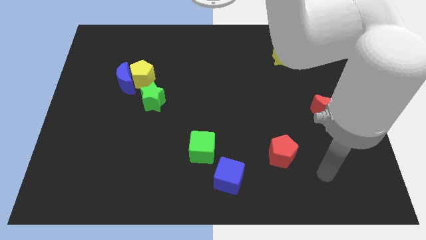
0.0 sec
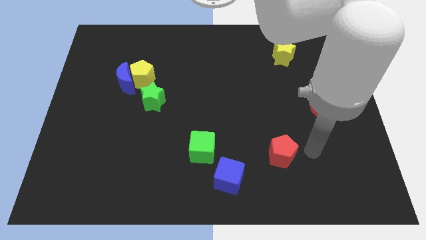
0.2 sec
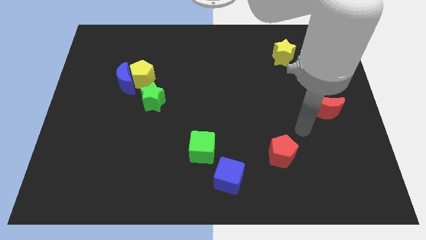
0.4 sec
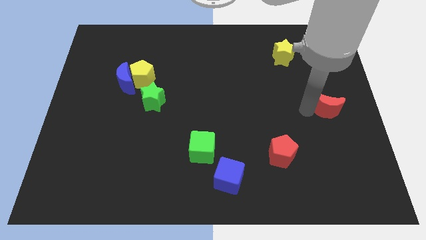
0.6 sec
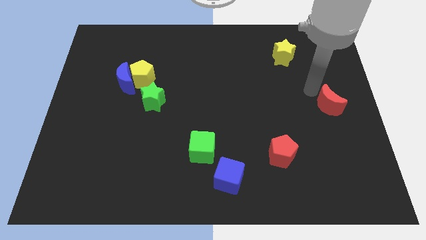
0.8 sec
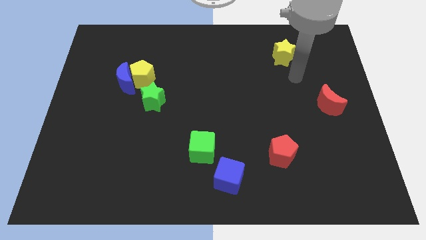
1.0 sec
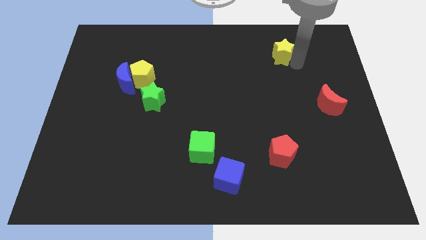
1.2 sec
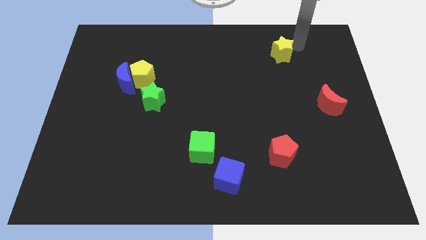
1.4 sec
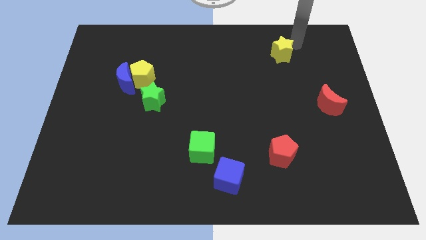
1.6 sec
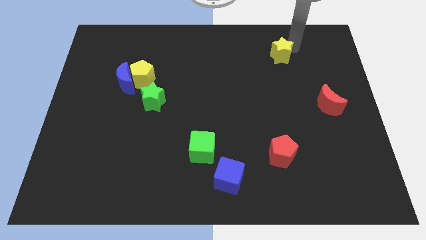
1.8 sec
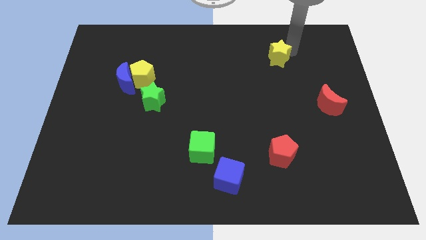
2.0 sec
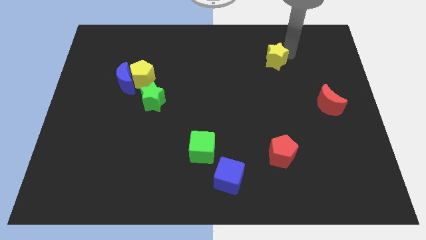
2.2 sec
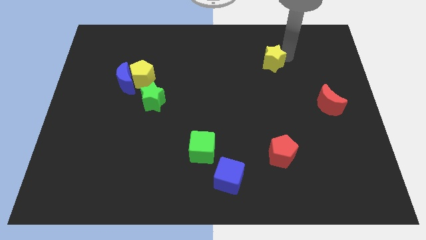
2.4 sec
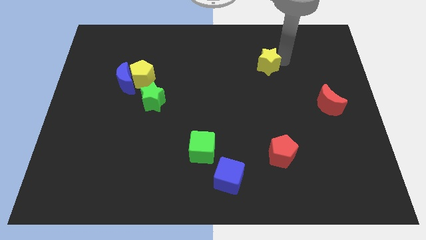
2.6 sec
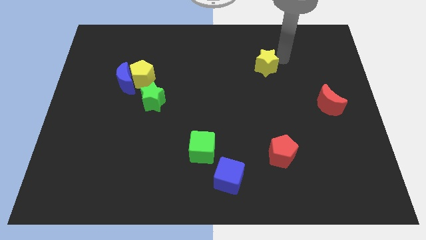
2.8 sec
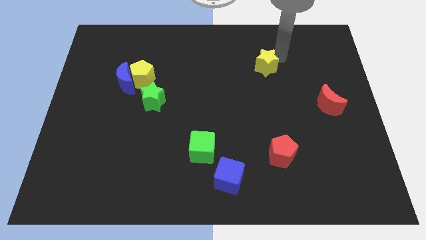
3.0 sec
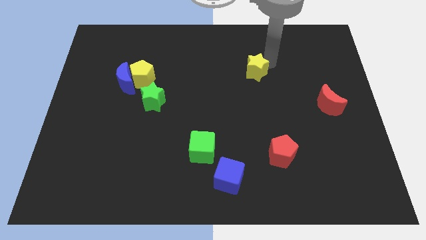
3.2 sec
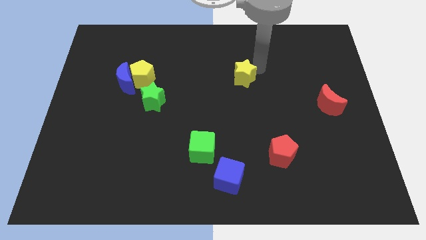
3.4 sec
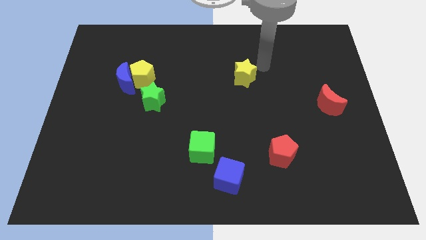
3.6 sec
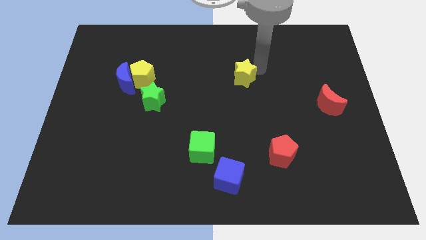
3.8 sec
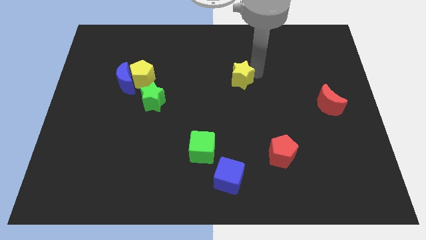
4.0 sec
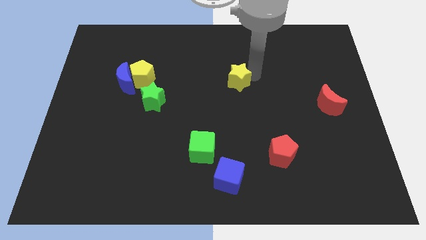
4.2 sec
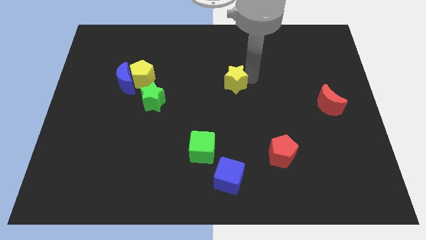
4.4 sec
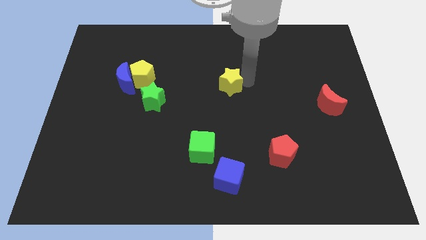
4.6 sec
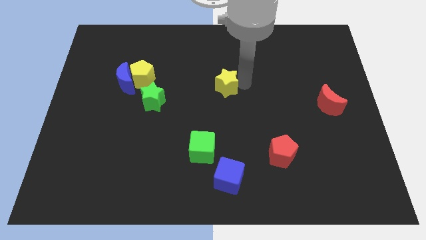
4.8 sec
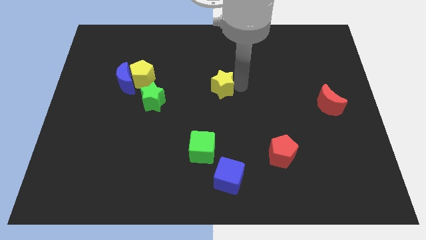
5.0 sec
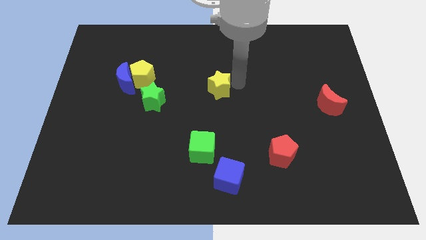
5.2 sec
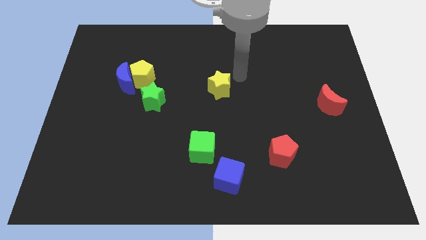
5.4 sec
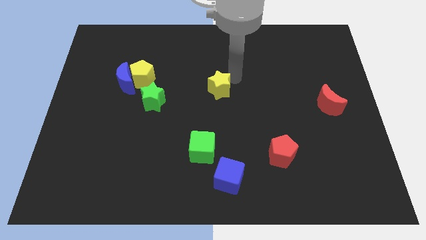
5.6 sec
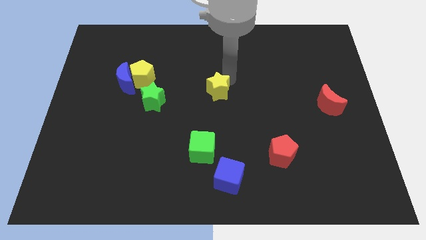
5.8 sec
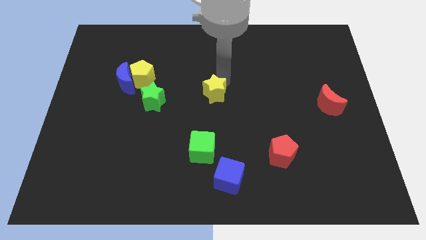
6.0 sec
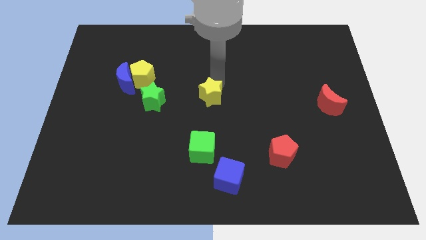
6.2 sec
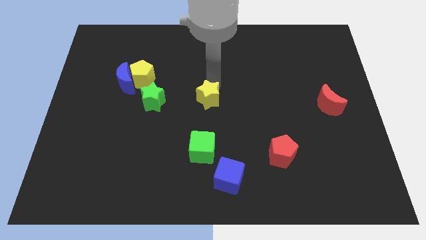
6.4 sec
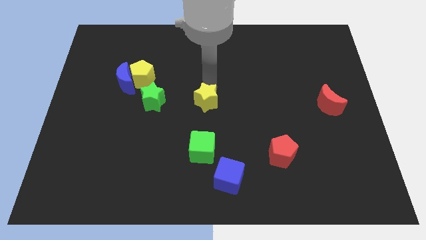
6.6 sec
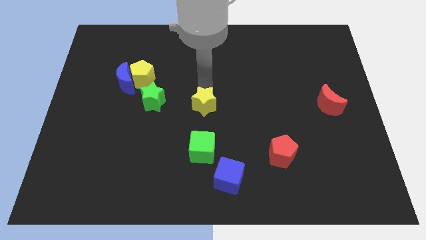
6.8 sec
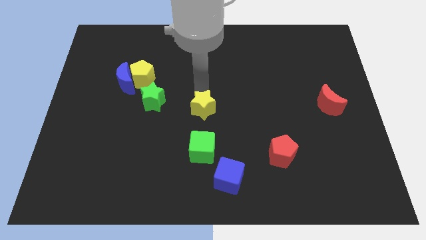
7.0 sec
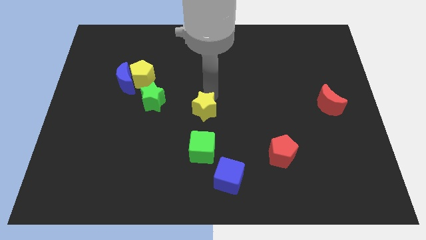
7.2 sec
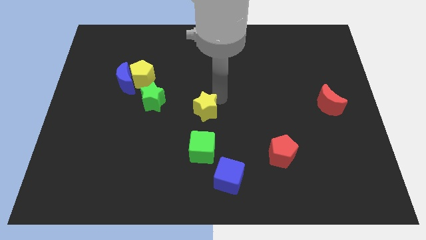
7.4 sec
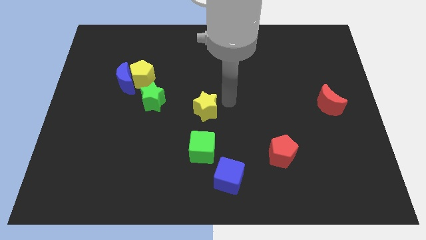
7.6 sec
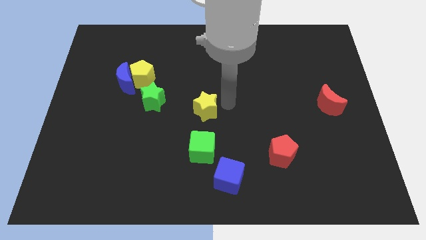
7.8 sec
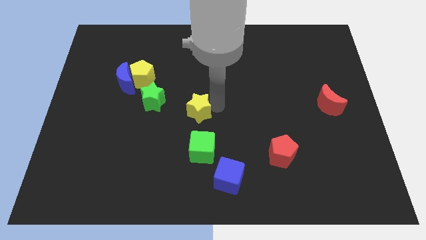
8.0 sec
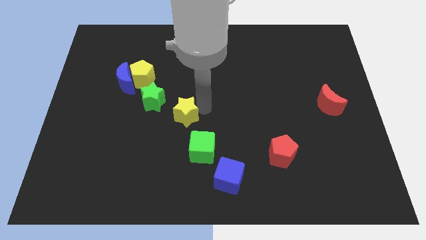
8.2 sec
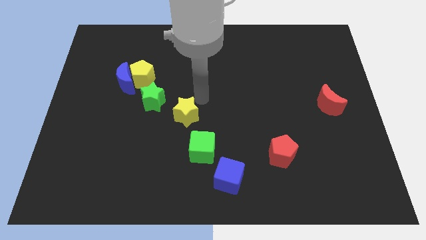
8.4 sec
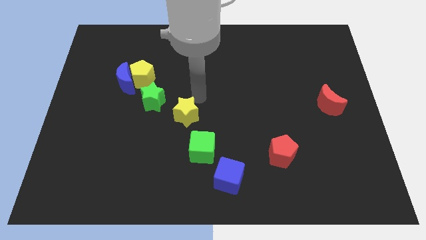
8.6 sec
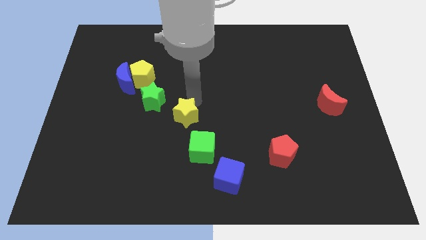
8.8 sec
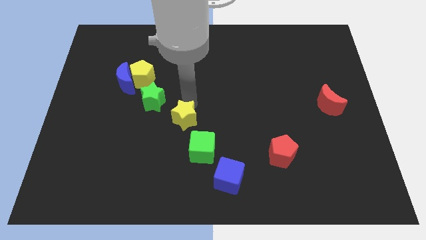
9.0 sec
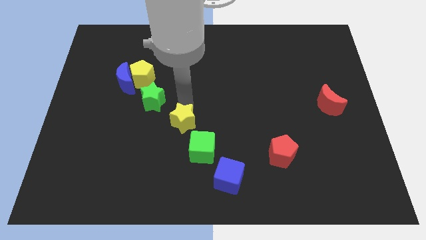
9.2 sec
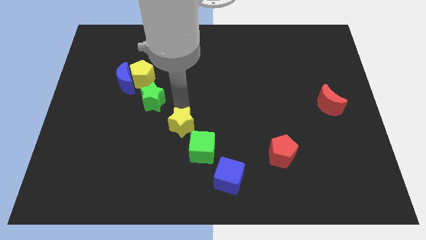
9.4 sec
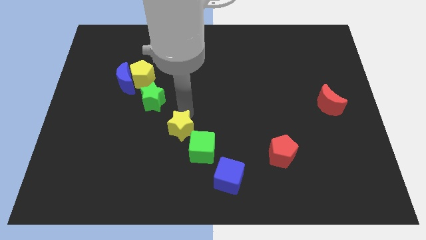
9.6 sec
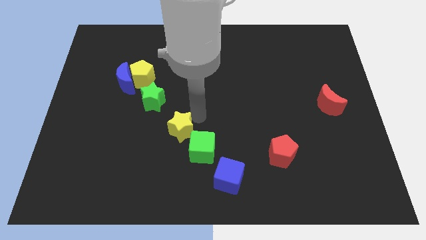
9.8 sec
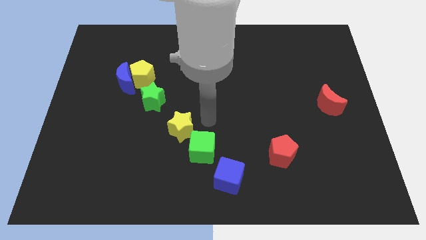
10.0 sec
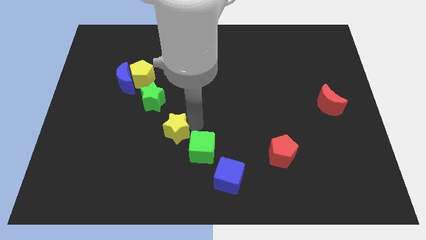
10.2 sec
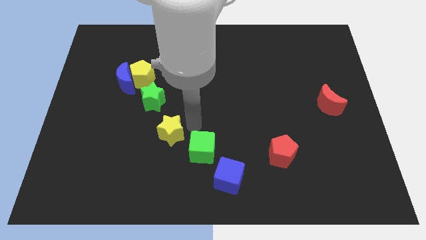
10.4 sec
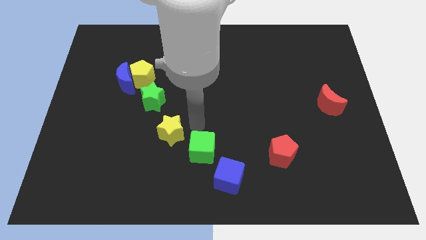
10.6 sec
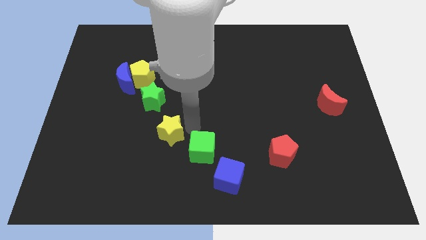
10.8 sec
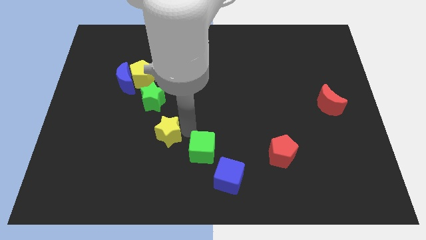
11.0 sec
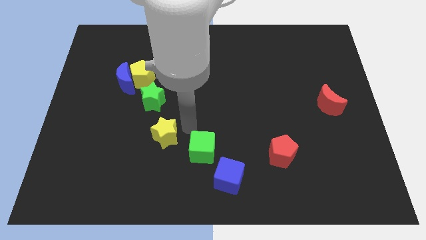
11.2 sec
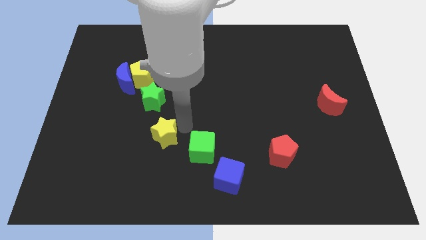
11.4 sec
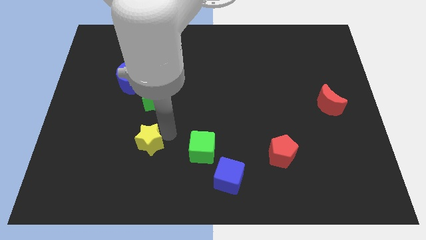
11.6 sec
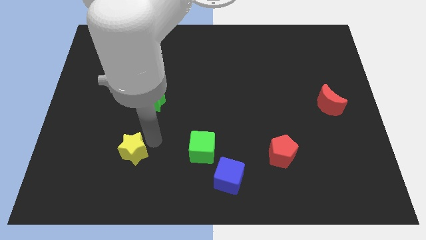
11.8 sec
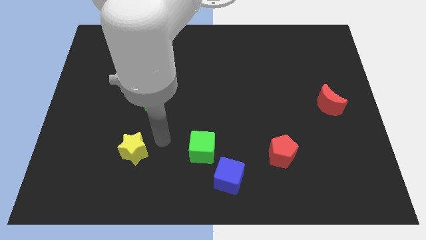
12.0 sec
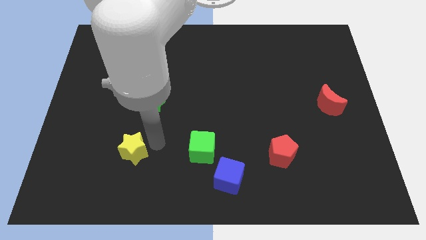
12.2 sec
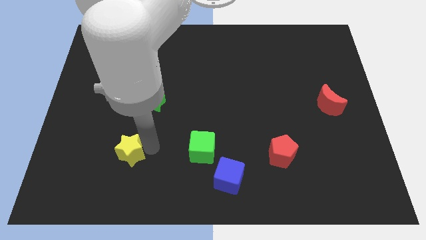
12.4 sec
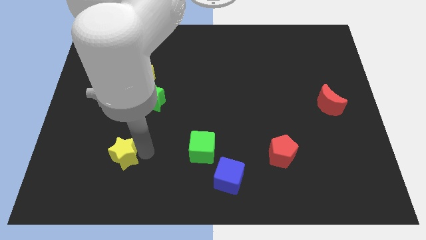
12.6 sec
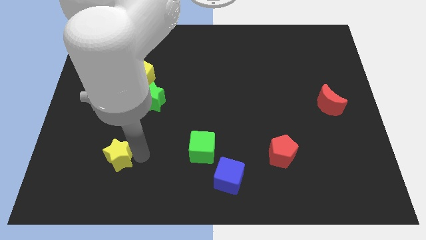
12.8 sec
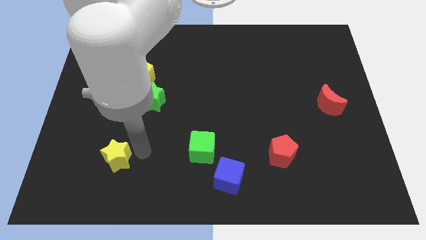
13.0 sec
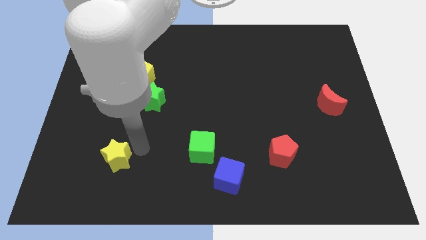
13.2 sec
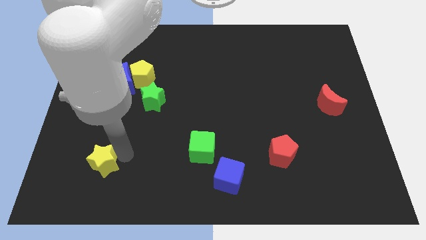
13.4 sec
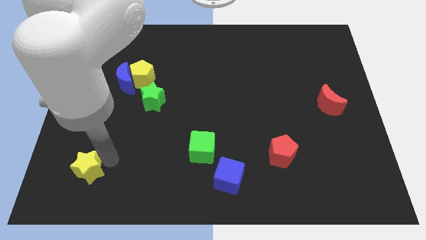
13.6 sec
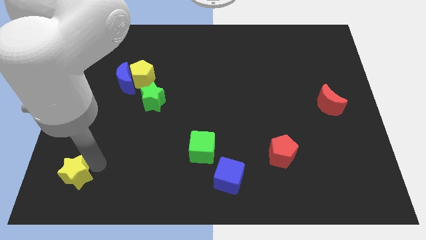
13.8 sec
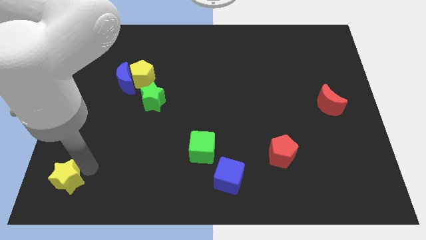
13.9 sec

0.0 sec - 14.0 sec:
push the yellow star to the bottom left

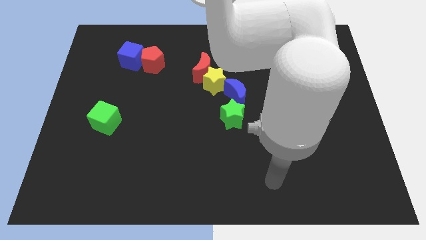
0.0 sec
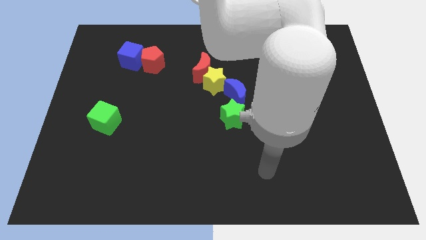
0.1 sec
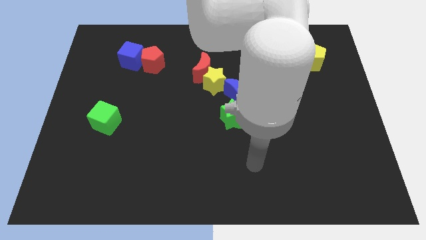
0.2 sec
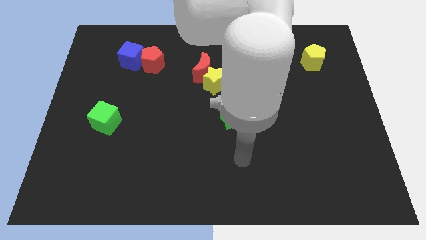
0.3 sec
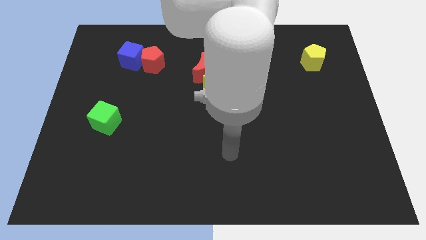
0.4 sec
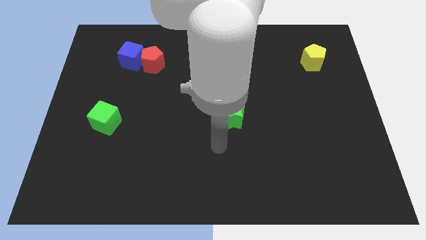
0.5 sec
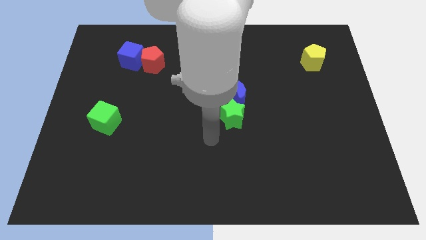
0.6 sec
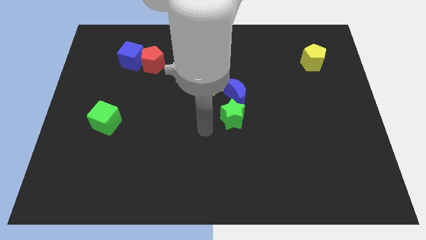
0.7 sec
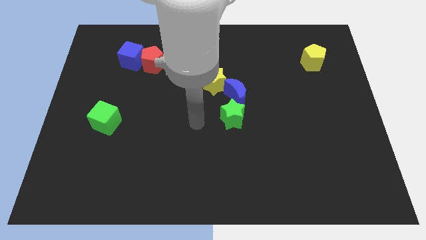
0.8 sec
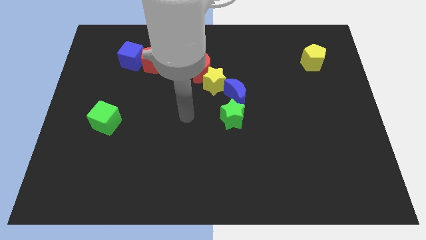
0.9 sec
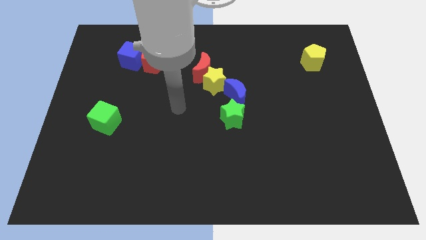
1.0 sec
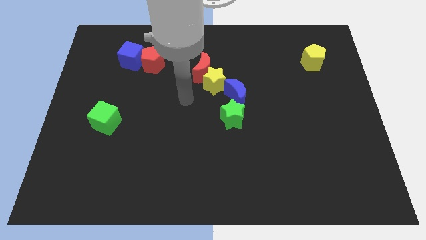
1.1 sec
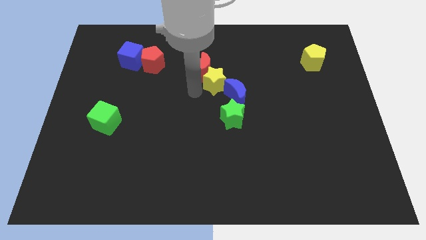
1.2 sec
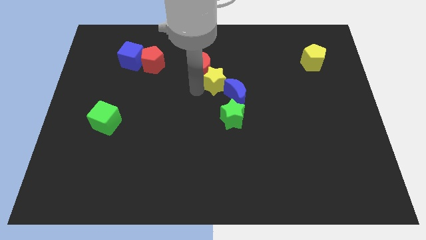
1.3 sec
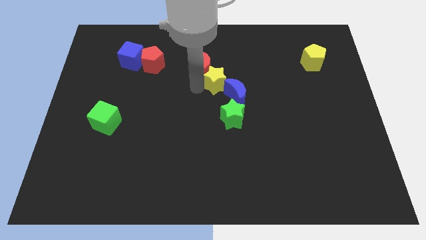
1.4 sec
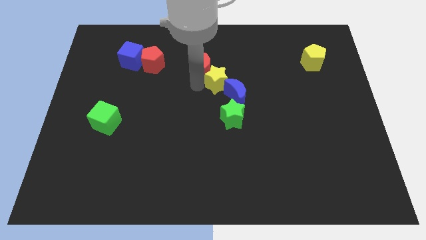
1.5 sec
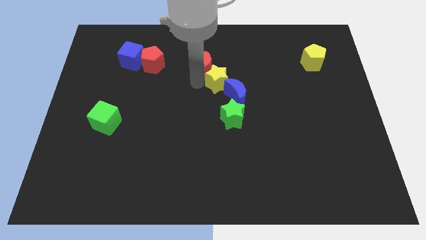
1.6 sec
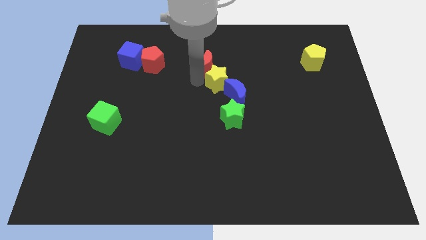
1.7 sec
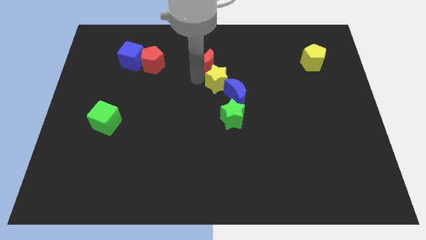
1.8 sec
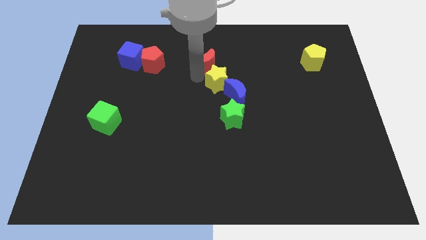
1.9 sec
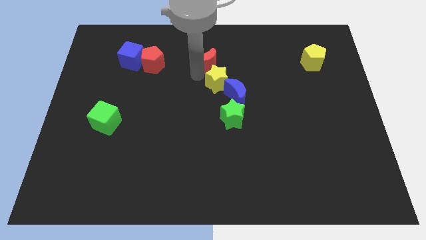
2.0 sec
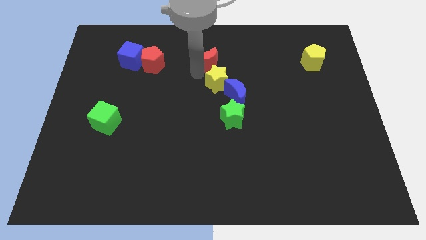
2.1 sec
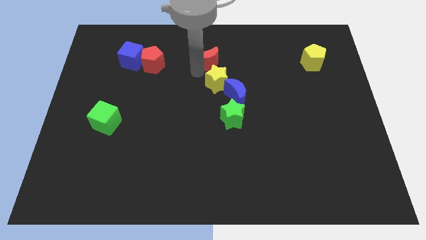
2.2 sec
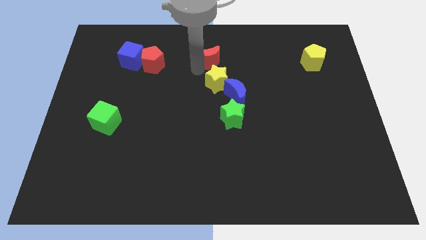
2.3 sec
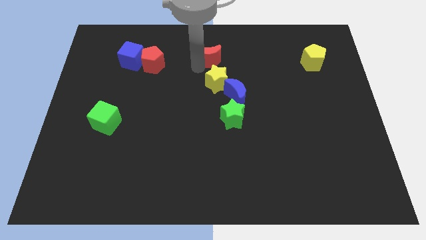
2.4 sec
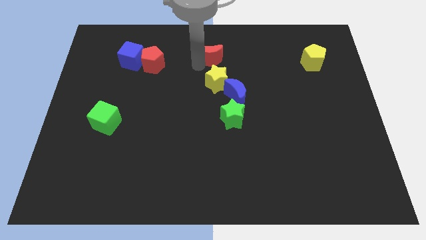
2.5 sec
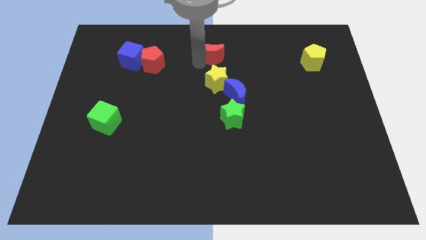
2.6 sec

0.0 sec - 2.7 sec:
put the red moon to the top side
